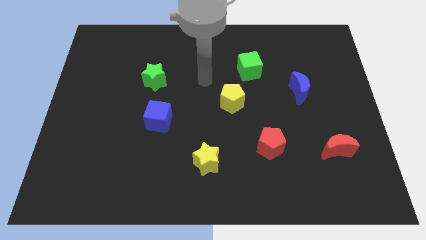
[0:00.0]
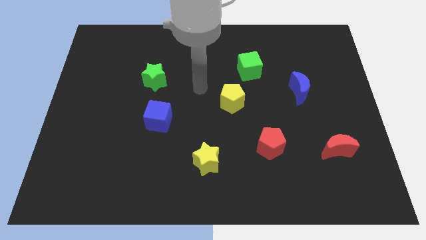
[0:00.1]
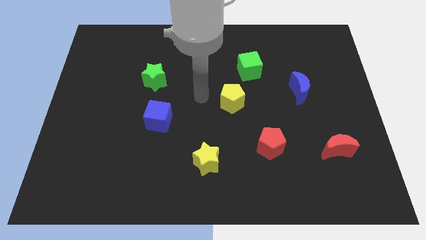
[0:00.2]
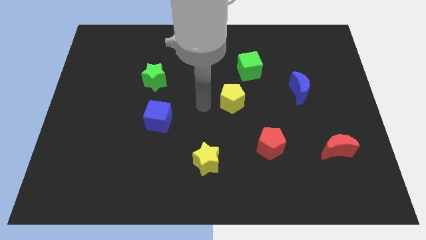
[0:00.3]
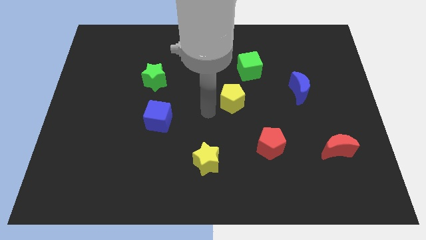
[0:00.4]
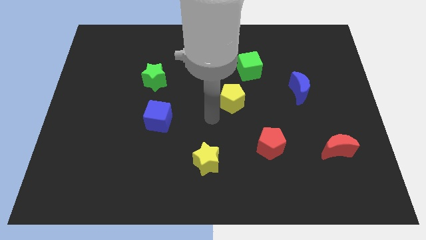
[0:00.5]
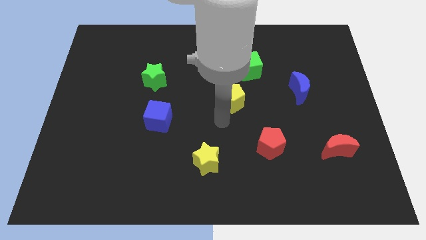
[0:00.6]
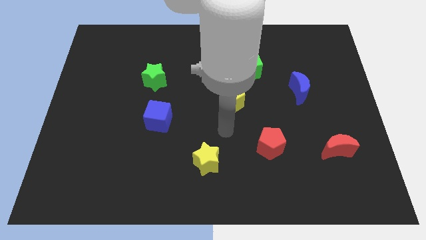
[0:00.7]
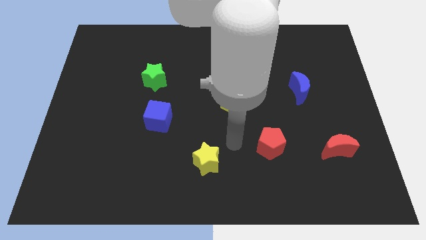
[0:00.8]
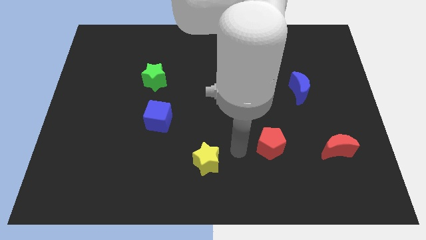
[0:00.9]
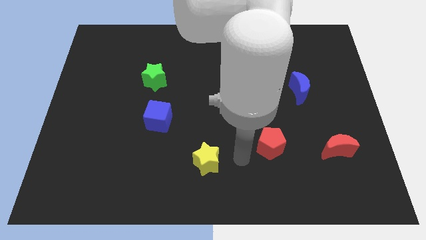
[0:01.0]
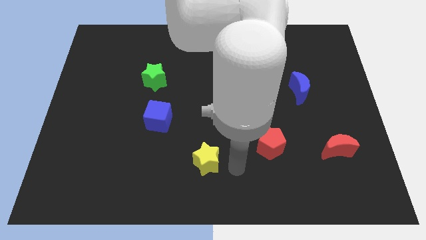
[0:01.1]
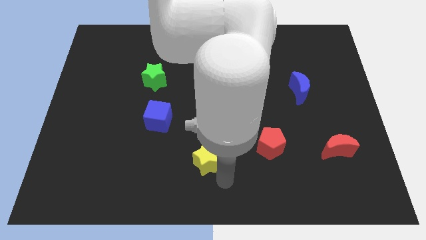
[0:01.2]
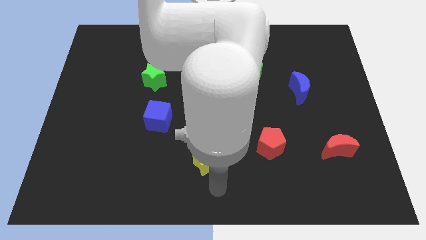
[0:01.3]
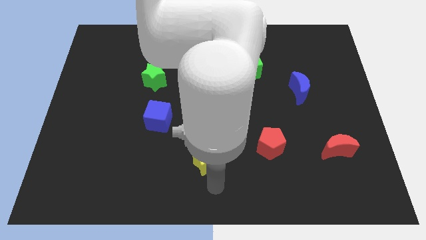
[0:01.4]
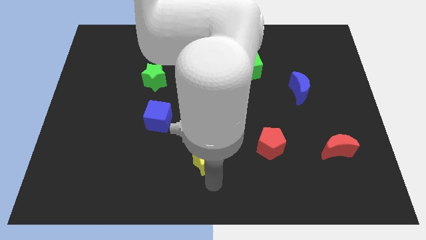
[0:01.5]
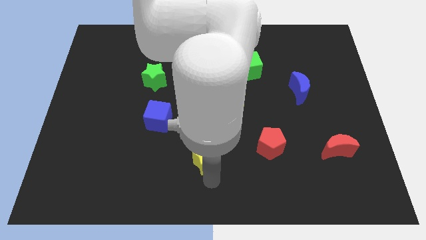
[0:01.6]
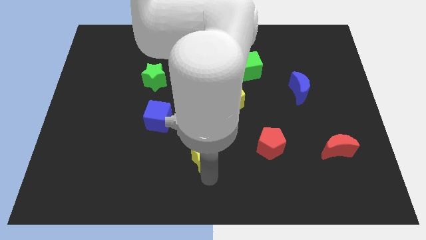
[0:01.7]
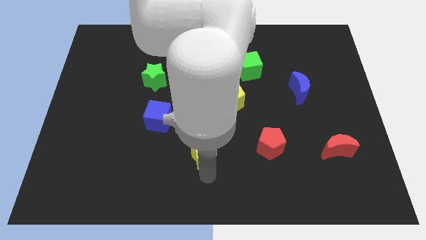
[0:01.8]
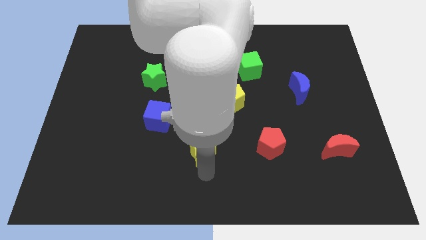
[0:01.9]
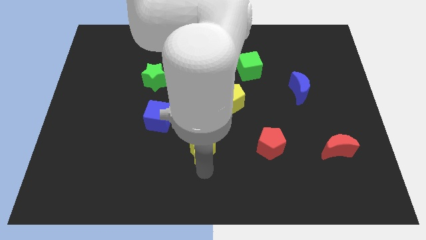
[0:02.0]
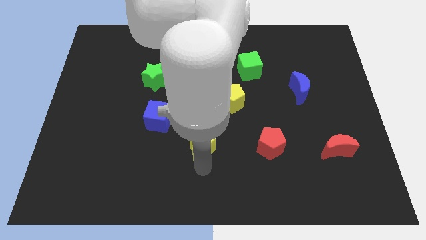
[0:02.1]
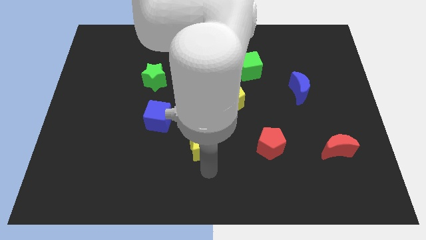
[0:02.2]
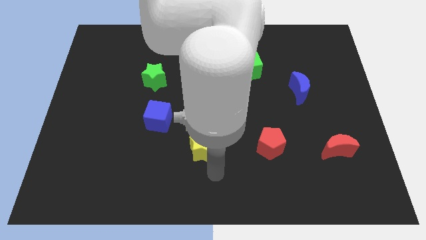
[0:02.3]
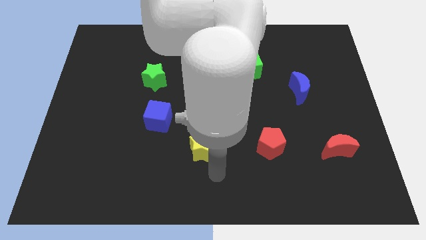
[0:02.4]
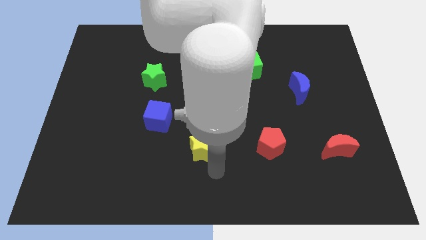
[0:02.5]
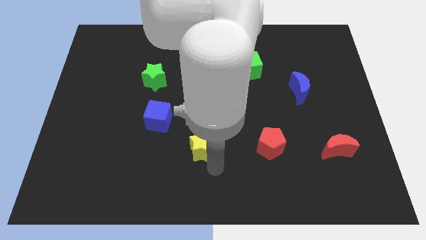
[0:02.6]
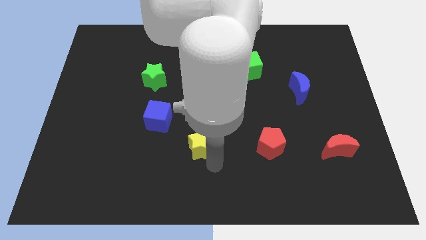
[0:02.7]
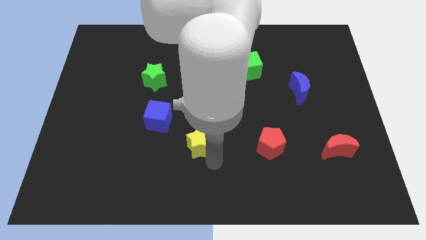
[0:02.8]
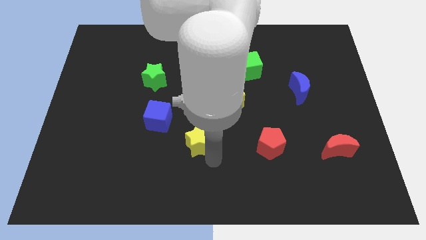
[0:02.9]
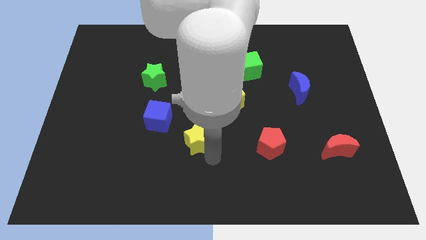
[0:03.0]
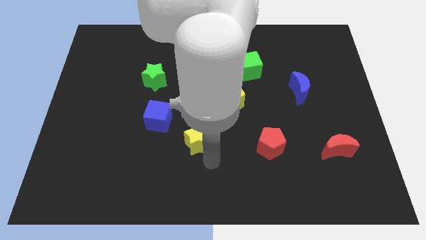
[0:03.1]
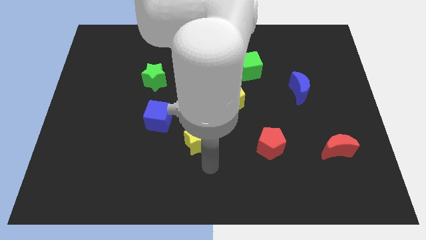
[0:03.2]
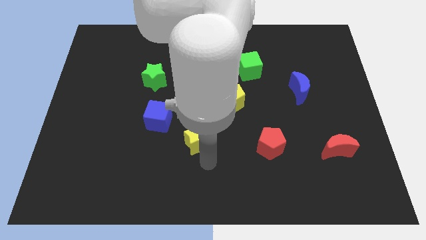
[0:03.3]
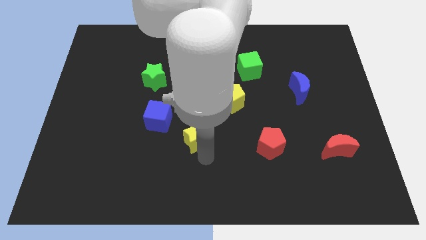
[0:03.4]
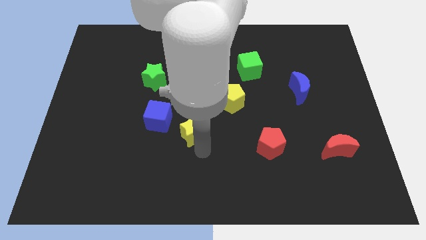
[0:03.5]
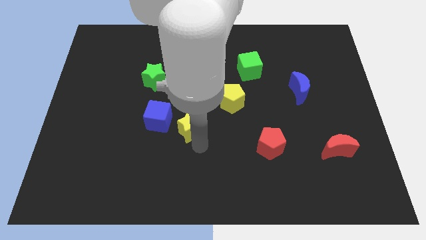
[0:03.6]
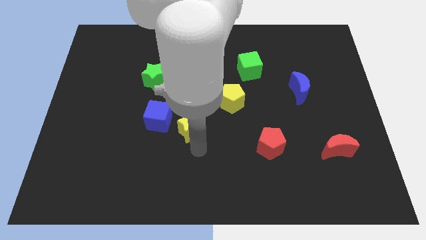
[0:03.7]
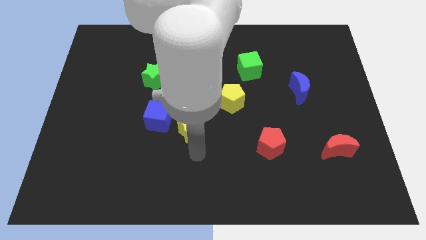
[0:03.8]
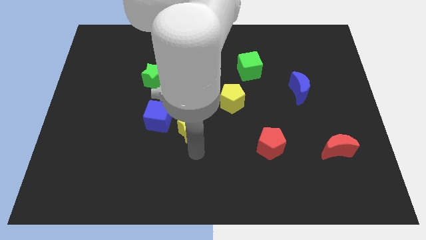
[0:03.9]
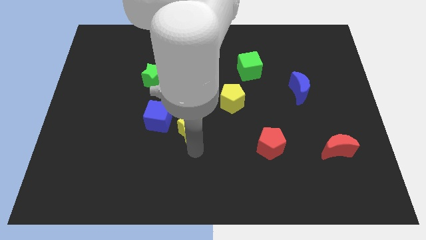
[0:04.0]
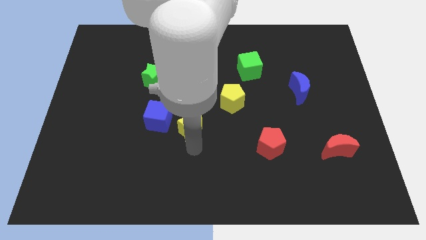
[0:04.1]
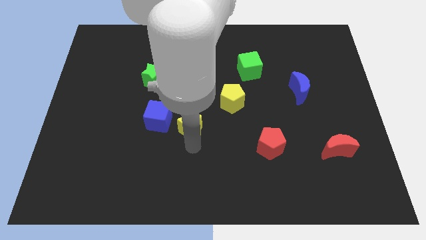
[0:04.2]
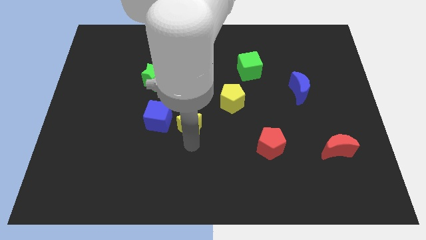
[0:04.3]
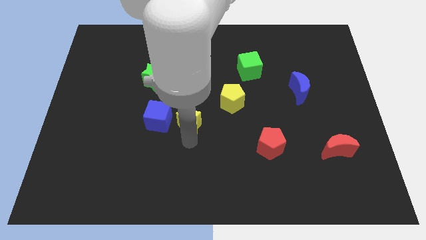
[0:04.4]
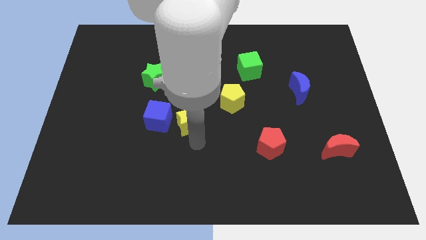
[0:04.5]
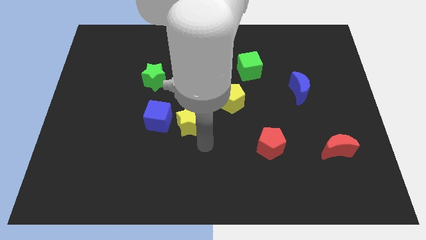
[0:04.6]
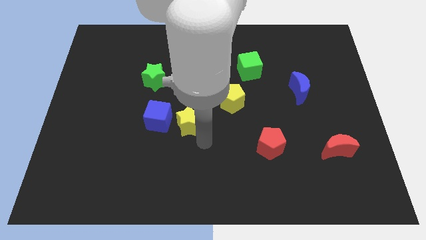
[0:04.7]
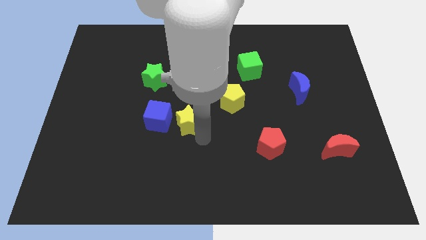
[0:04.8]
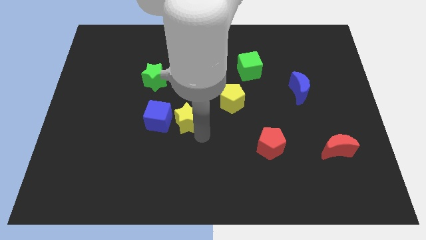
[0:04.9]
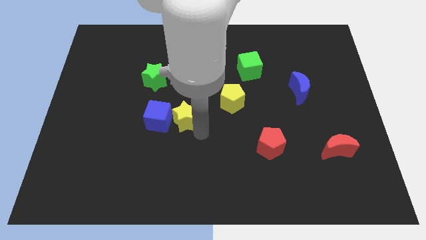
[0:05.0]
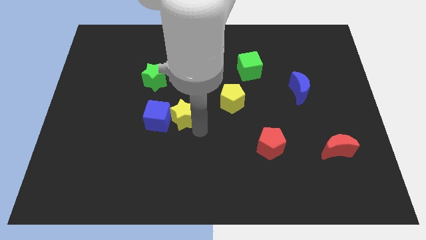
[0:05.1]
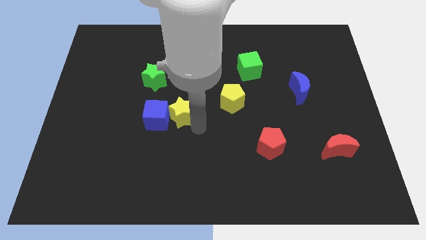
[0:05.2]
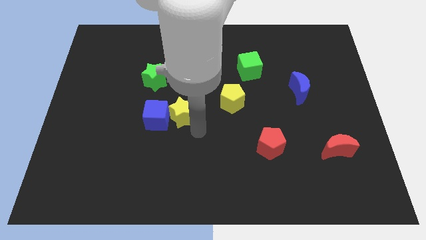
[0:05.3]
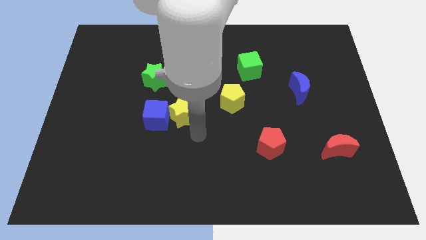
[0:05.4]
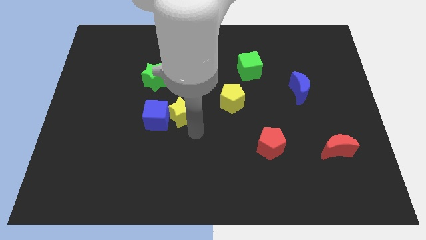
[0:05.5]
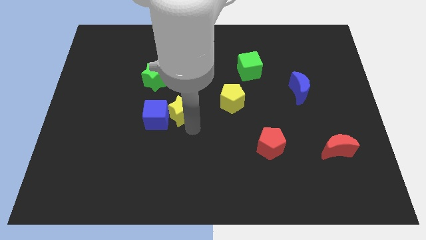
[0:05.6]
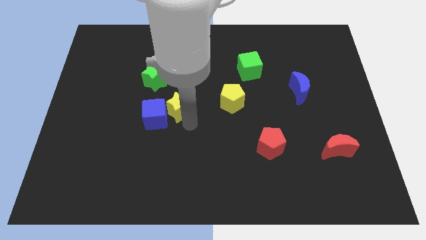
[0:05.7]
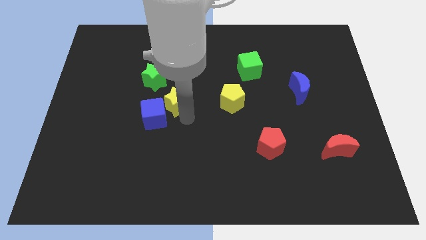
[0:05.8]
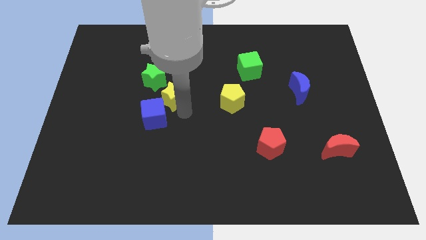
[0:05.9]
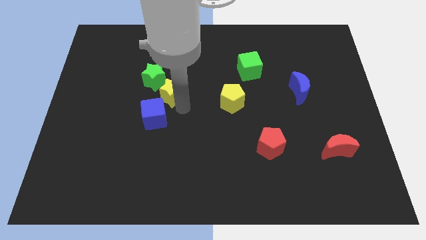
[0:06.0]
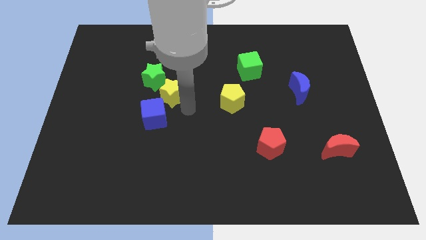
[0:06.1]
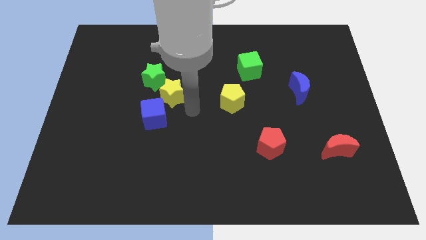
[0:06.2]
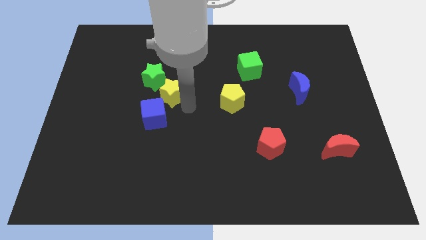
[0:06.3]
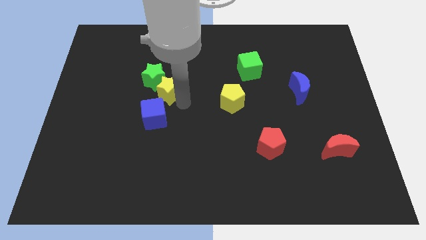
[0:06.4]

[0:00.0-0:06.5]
put the yellow star towards the green star

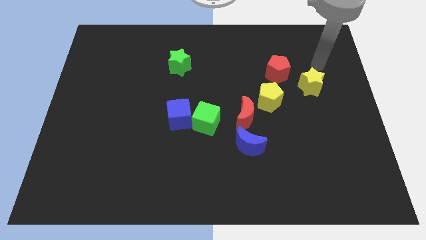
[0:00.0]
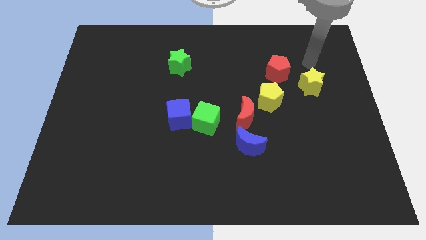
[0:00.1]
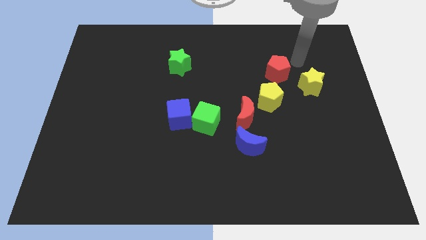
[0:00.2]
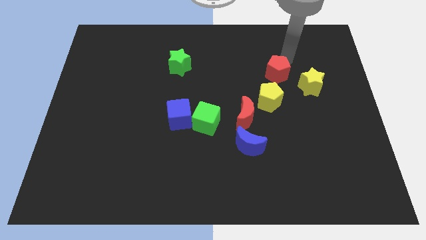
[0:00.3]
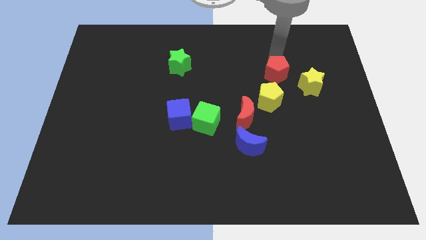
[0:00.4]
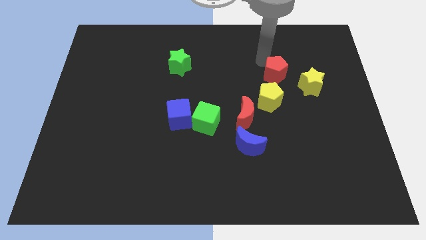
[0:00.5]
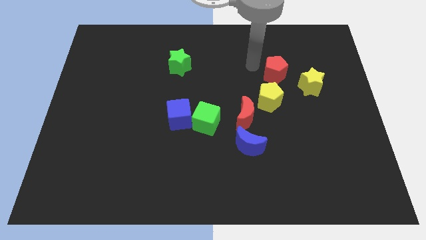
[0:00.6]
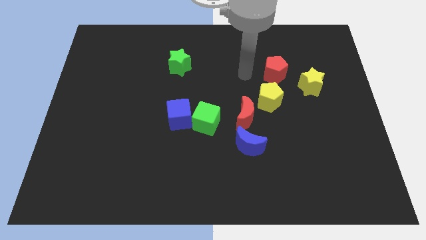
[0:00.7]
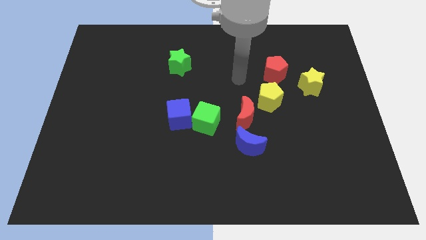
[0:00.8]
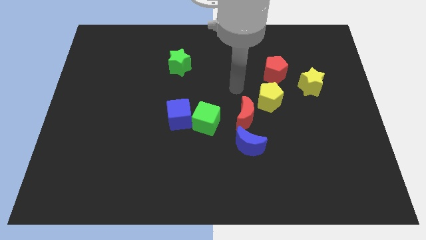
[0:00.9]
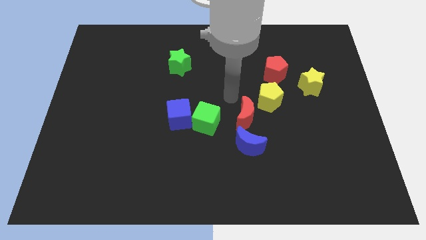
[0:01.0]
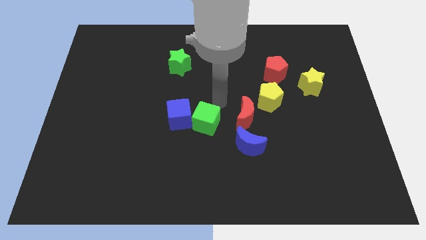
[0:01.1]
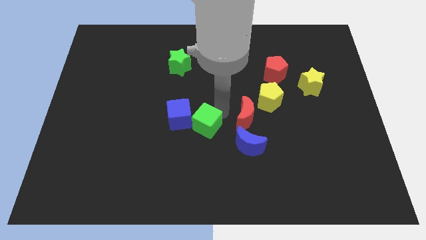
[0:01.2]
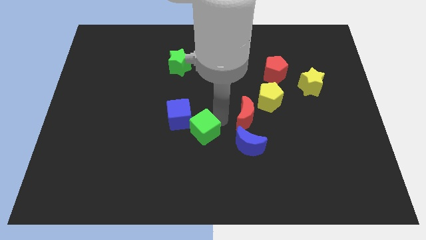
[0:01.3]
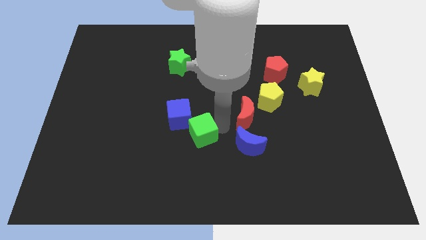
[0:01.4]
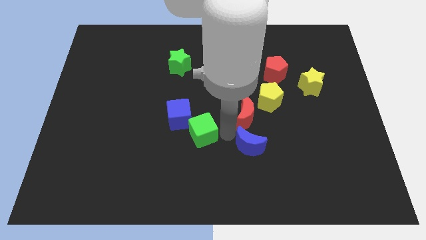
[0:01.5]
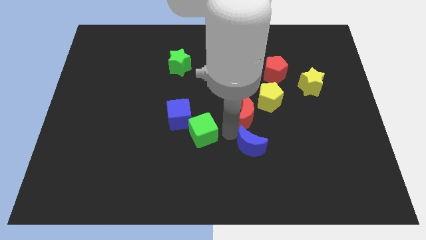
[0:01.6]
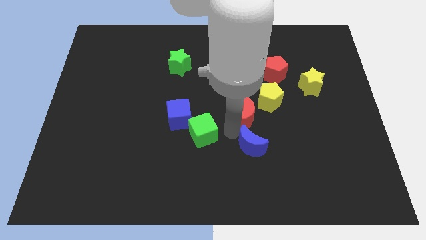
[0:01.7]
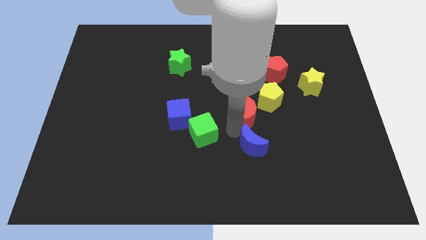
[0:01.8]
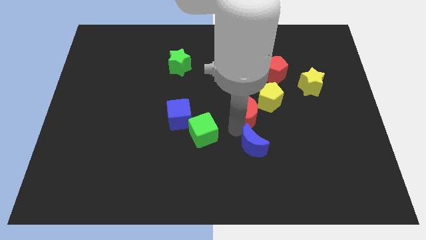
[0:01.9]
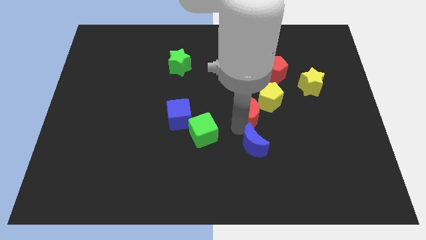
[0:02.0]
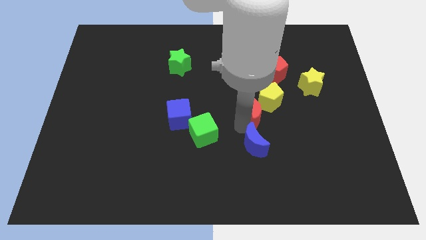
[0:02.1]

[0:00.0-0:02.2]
move the red moon close to the yellow pentagon
